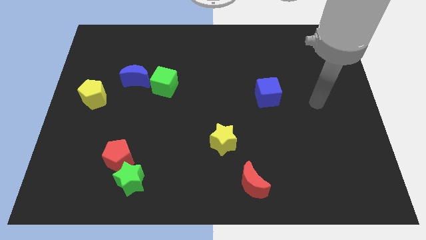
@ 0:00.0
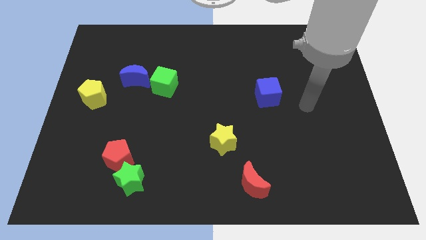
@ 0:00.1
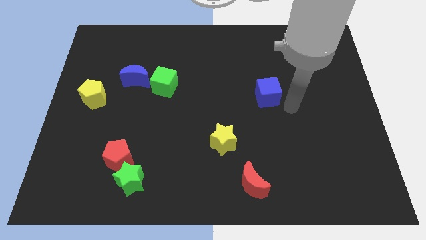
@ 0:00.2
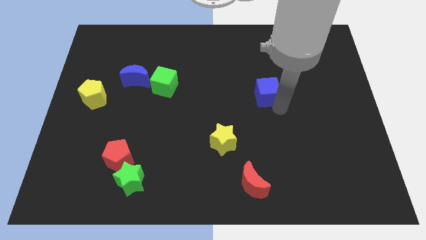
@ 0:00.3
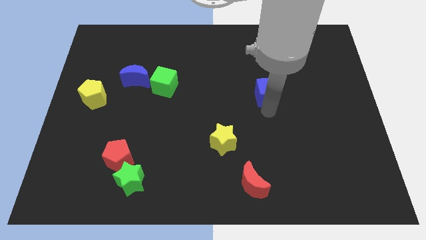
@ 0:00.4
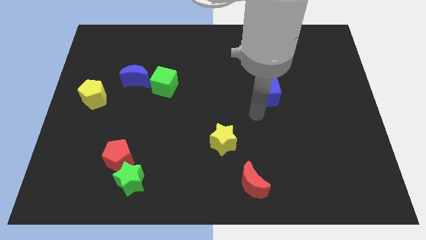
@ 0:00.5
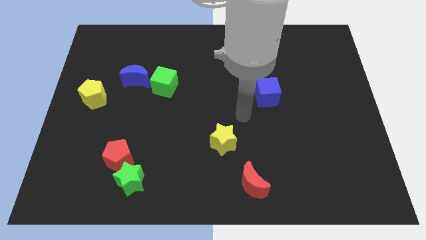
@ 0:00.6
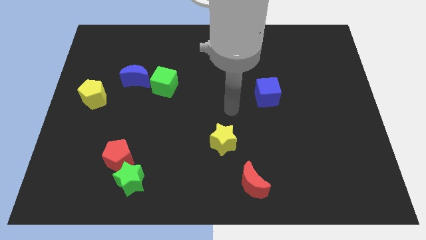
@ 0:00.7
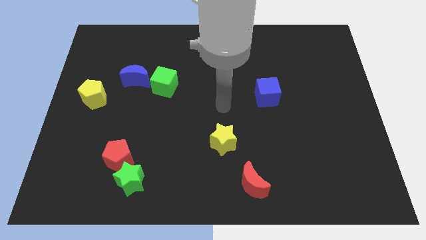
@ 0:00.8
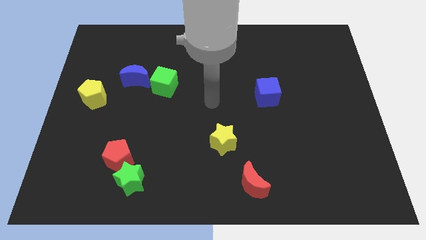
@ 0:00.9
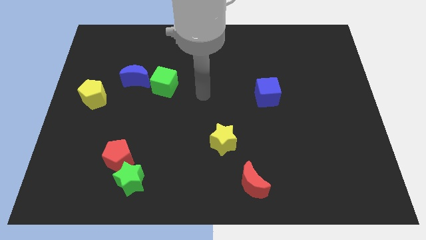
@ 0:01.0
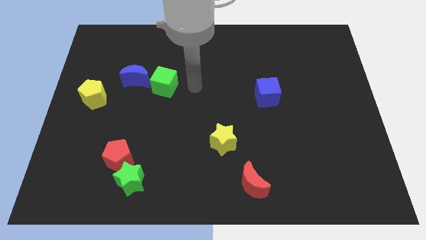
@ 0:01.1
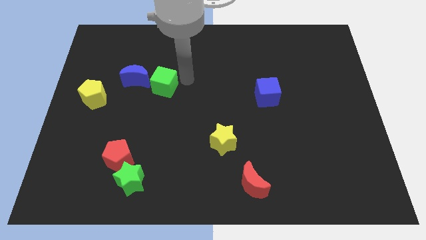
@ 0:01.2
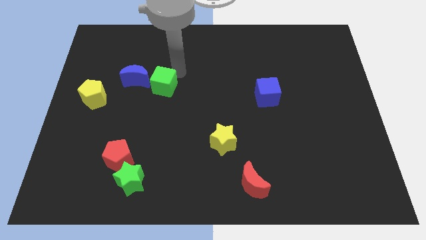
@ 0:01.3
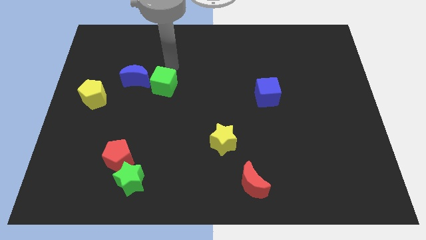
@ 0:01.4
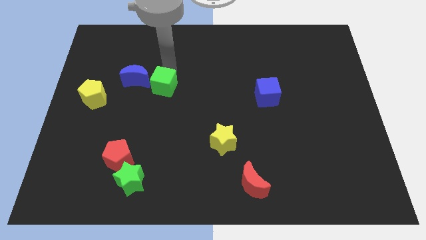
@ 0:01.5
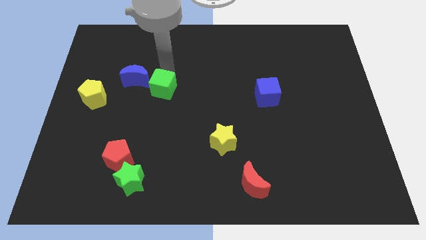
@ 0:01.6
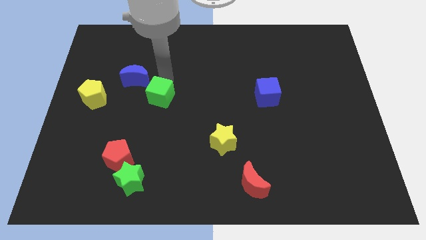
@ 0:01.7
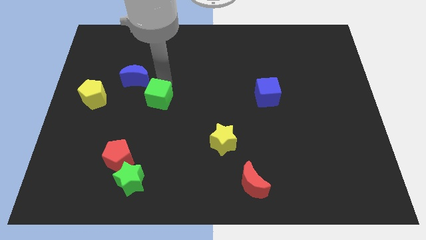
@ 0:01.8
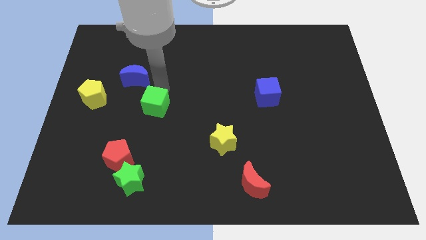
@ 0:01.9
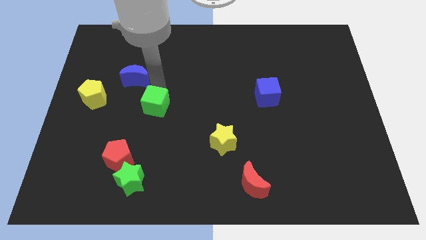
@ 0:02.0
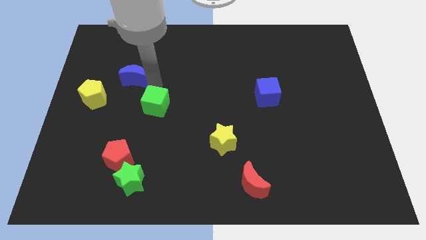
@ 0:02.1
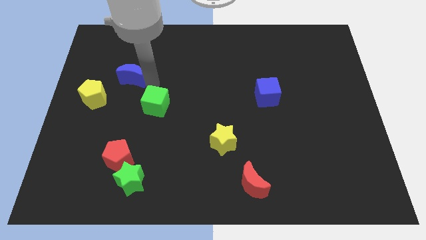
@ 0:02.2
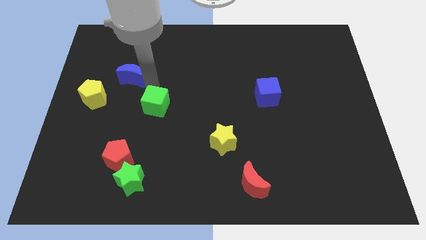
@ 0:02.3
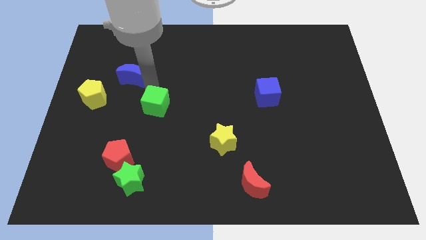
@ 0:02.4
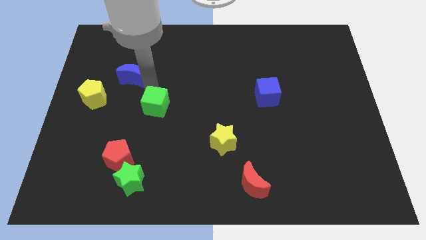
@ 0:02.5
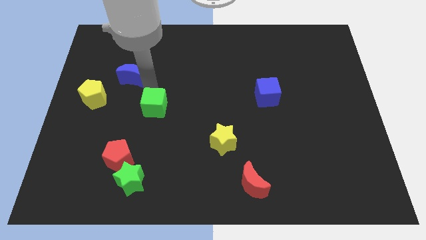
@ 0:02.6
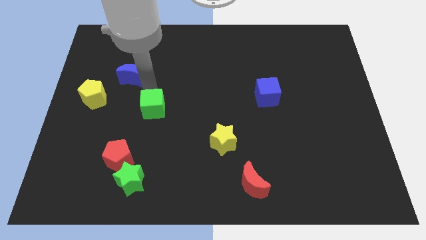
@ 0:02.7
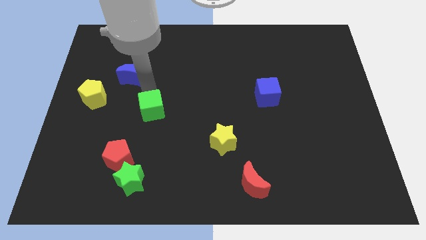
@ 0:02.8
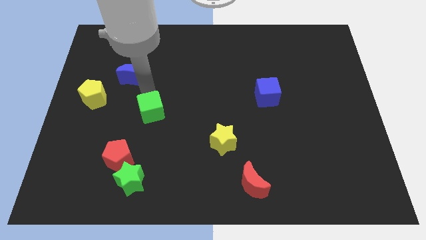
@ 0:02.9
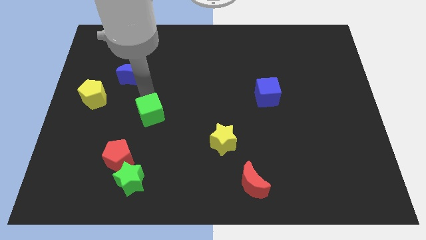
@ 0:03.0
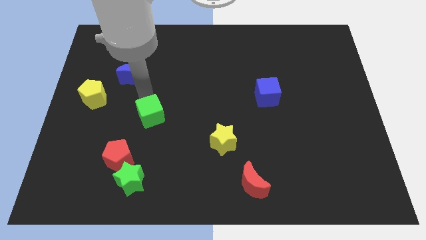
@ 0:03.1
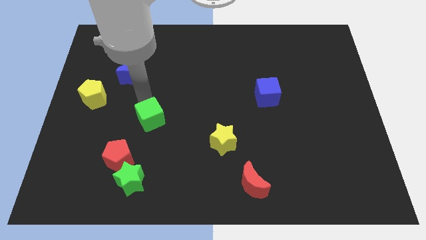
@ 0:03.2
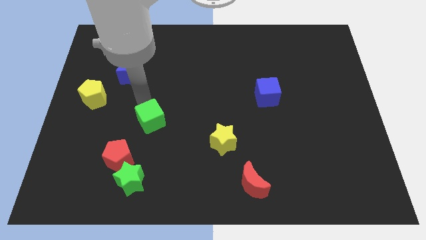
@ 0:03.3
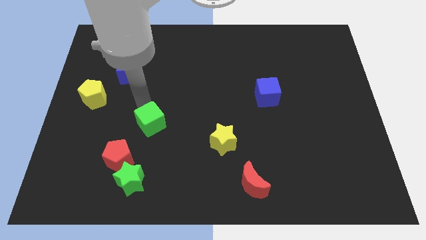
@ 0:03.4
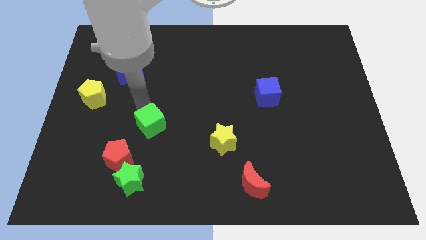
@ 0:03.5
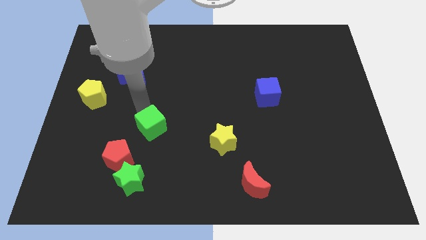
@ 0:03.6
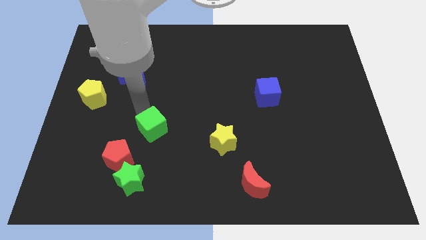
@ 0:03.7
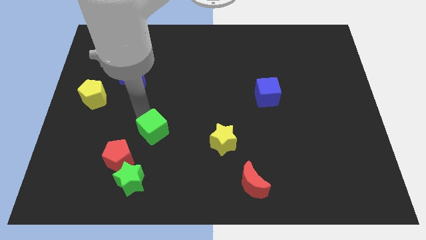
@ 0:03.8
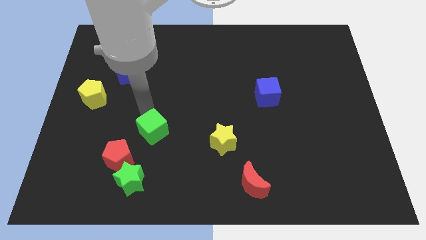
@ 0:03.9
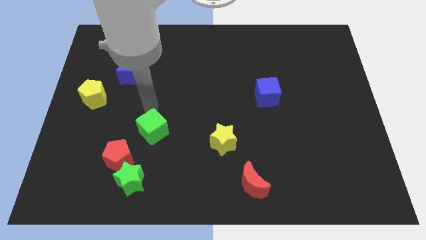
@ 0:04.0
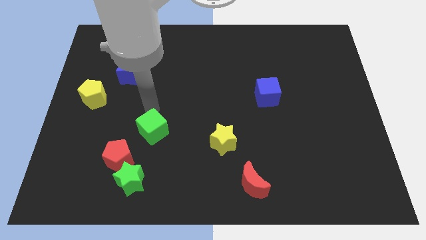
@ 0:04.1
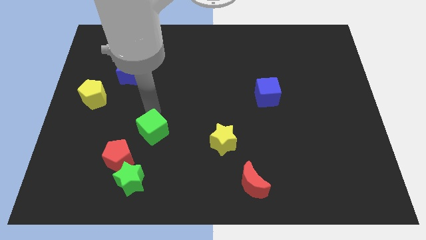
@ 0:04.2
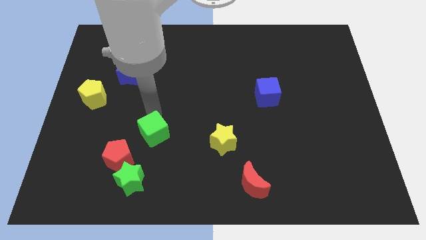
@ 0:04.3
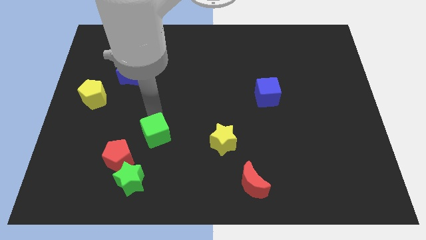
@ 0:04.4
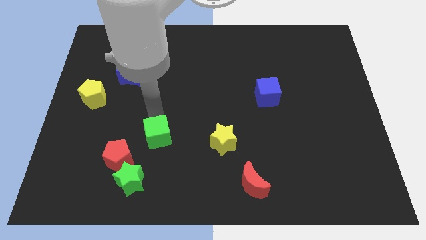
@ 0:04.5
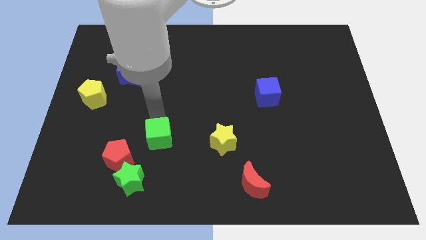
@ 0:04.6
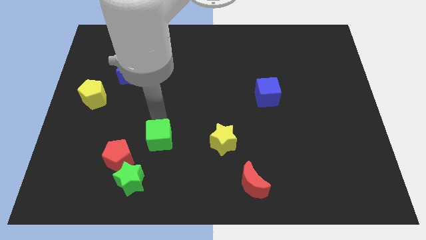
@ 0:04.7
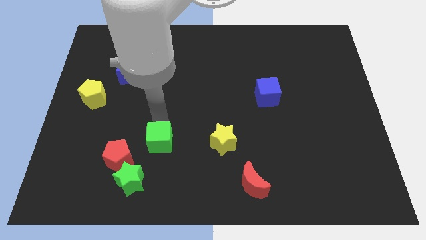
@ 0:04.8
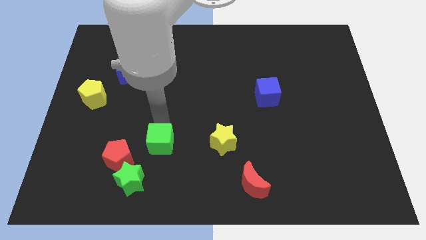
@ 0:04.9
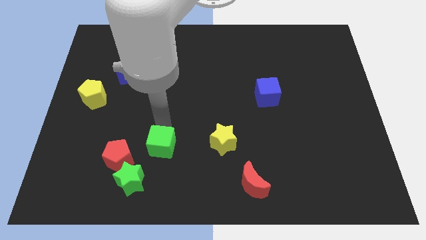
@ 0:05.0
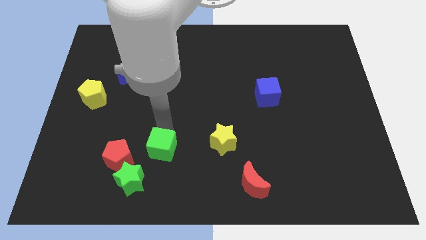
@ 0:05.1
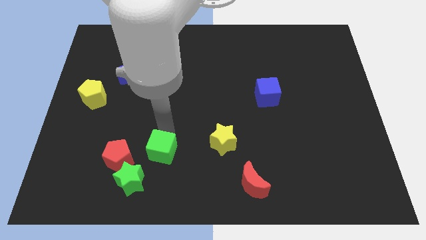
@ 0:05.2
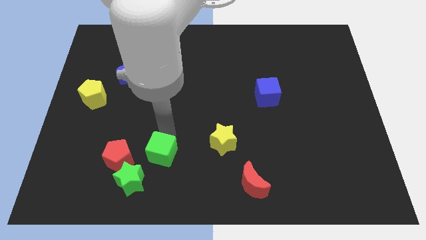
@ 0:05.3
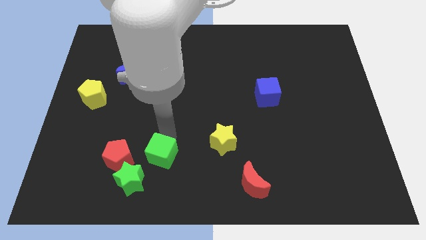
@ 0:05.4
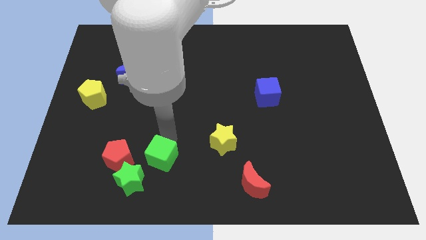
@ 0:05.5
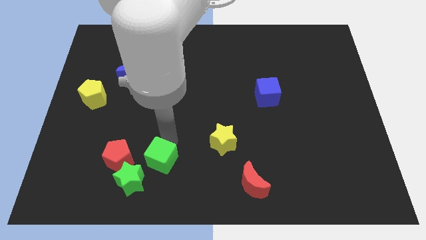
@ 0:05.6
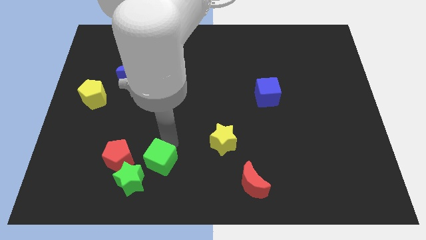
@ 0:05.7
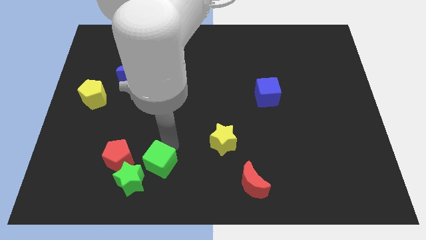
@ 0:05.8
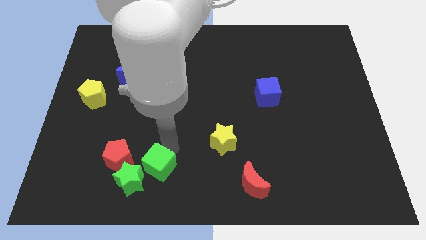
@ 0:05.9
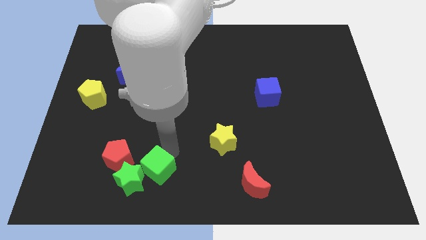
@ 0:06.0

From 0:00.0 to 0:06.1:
move the green cube to the green star

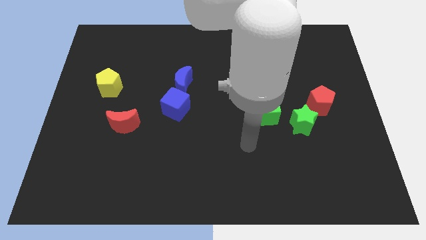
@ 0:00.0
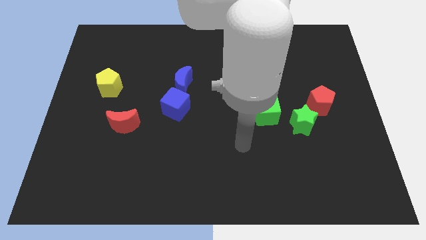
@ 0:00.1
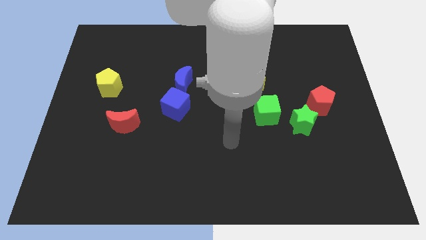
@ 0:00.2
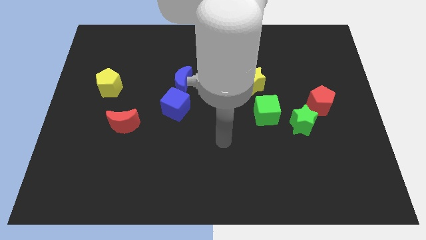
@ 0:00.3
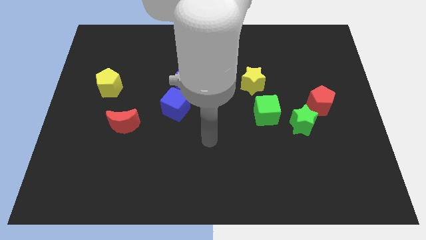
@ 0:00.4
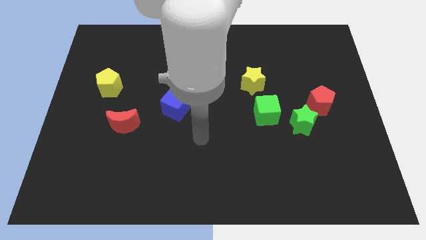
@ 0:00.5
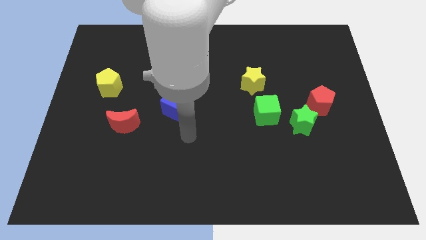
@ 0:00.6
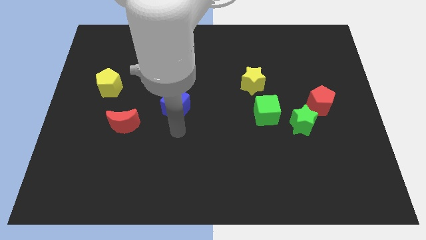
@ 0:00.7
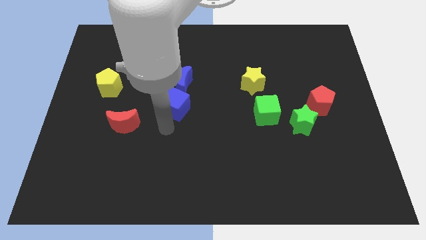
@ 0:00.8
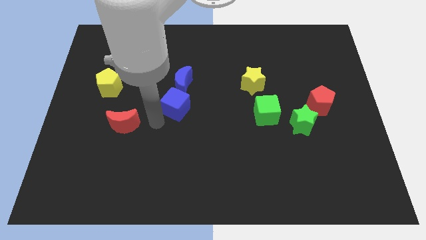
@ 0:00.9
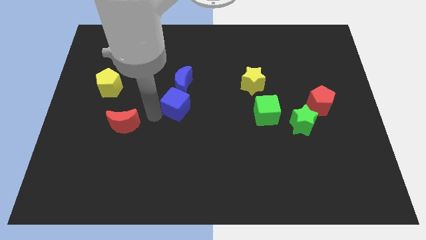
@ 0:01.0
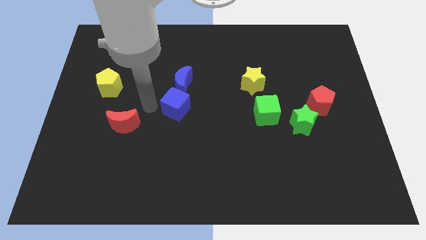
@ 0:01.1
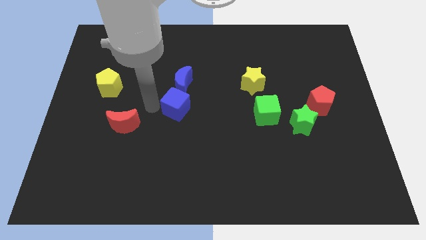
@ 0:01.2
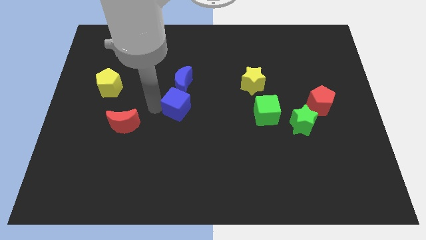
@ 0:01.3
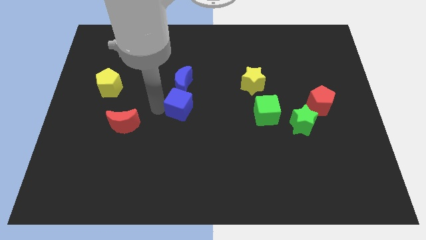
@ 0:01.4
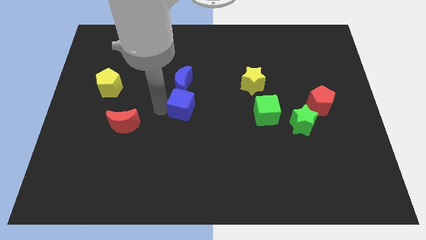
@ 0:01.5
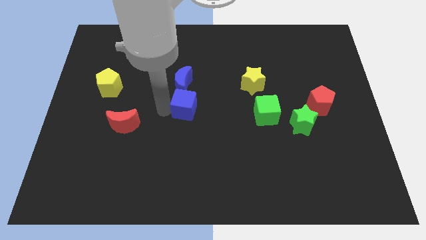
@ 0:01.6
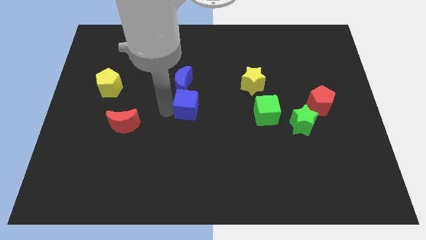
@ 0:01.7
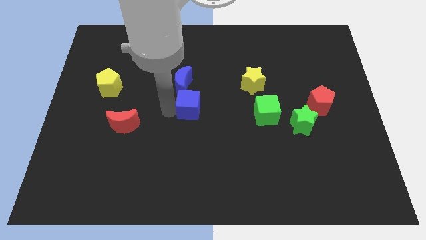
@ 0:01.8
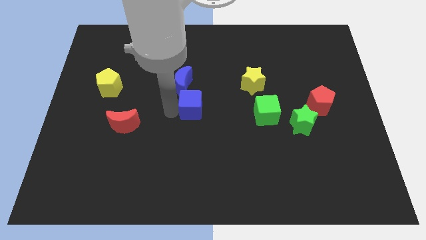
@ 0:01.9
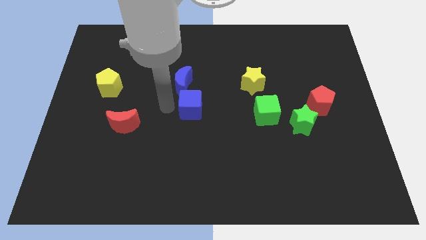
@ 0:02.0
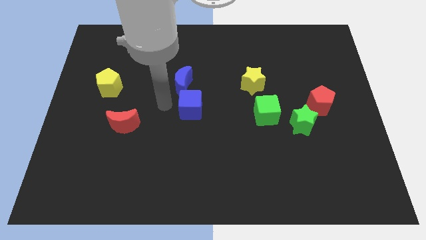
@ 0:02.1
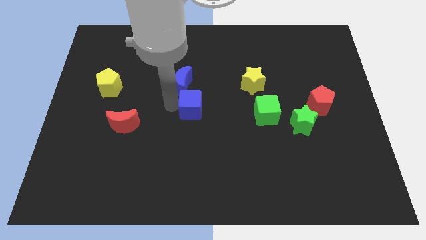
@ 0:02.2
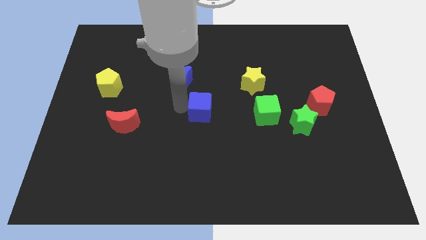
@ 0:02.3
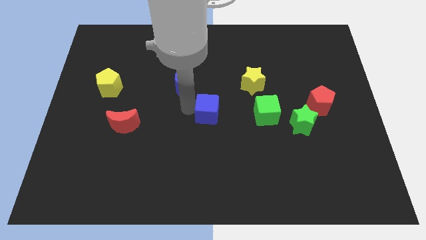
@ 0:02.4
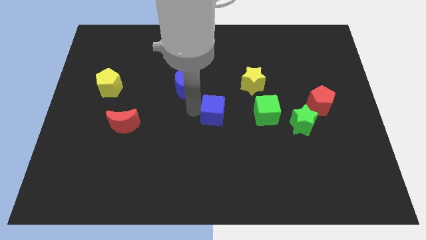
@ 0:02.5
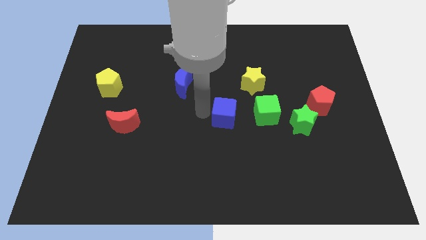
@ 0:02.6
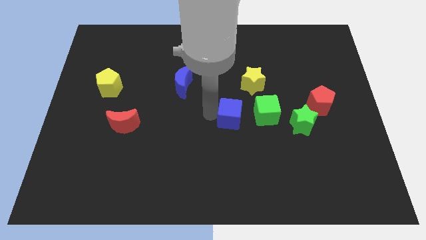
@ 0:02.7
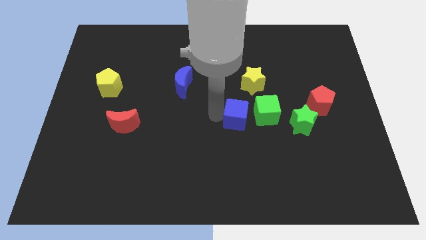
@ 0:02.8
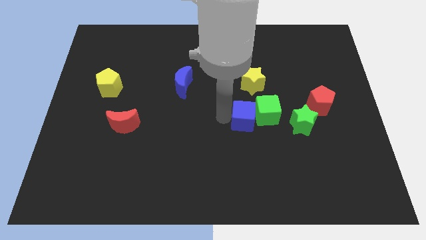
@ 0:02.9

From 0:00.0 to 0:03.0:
slide the blue cube towards the green cube
